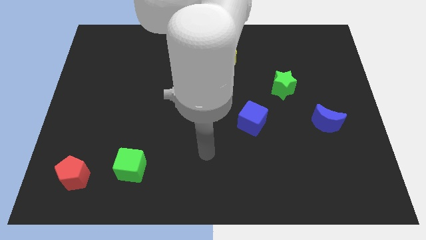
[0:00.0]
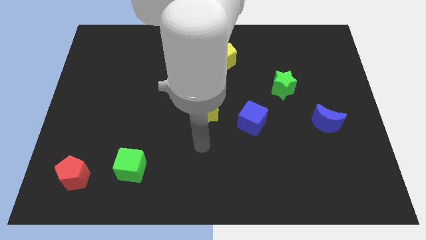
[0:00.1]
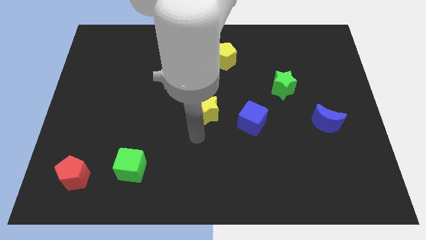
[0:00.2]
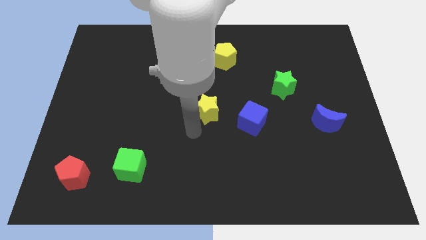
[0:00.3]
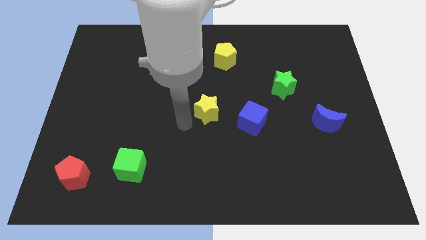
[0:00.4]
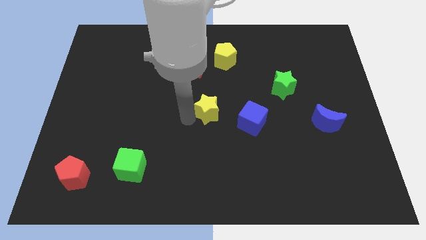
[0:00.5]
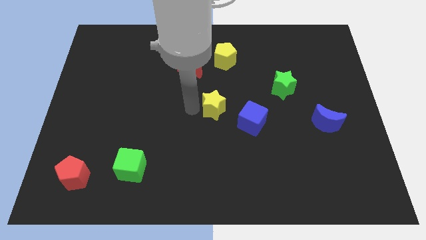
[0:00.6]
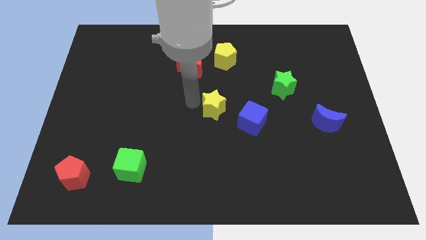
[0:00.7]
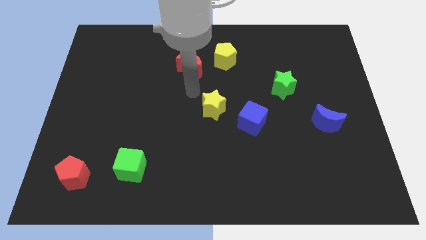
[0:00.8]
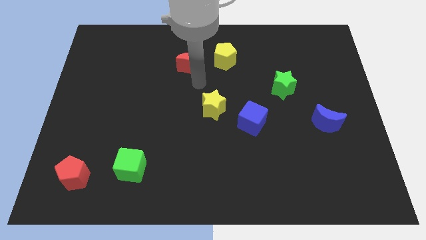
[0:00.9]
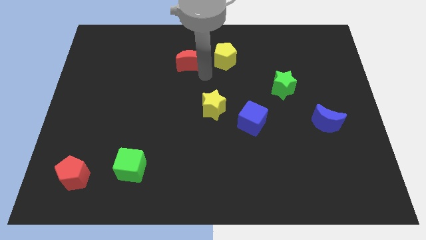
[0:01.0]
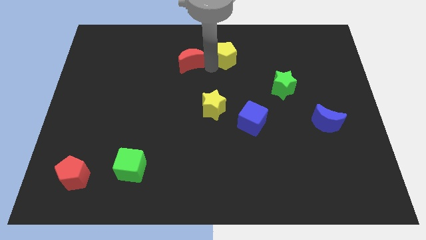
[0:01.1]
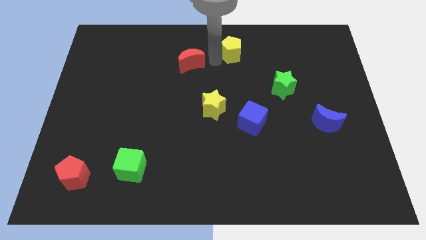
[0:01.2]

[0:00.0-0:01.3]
move the red moon away from the yellow pentagon

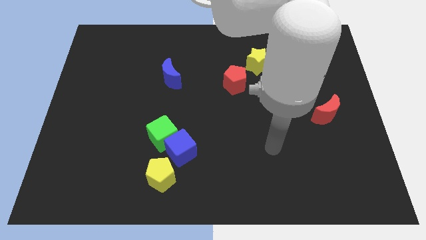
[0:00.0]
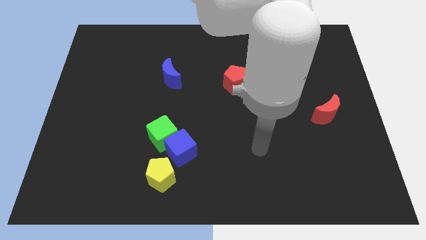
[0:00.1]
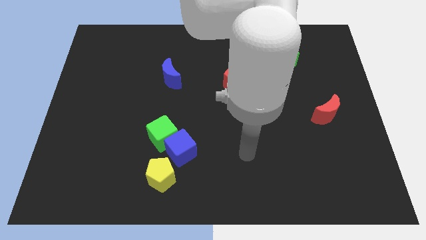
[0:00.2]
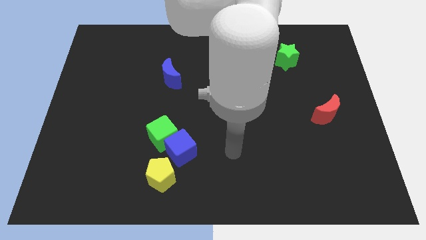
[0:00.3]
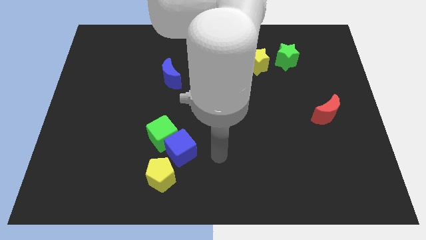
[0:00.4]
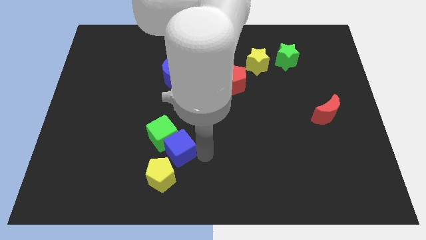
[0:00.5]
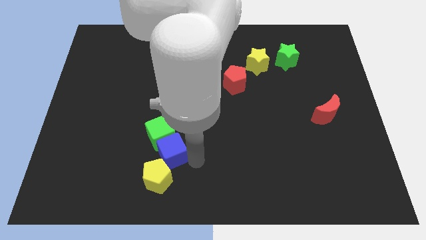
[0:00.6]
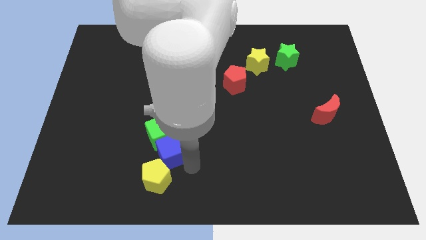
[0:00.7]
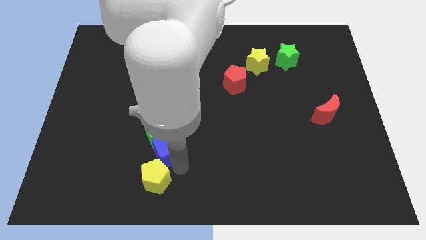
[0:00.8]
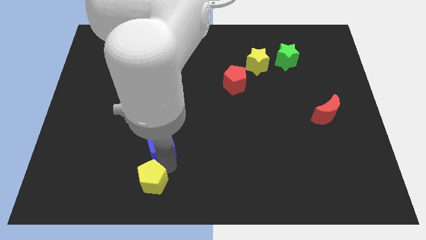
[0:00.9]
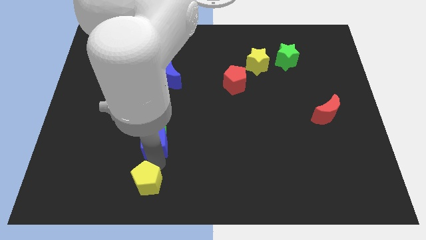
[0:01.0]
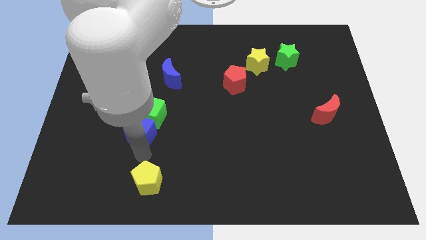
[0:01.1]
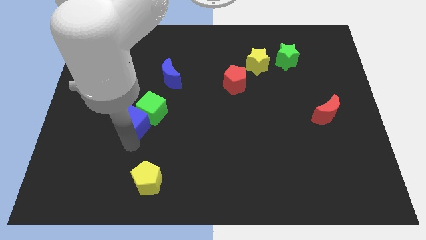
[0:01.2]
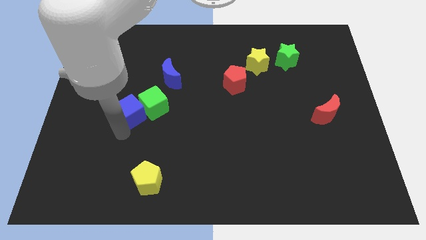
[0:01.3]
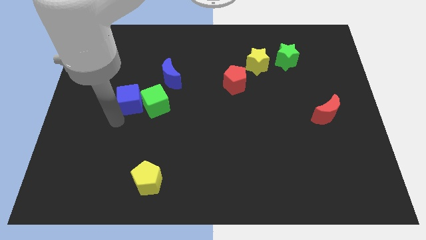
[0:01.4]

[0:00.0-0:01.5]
separate the blue cube from the green cube and yellow pentagon

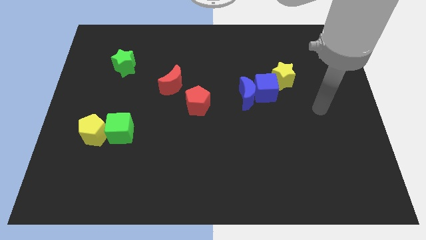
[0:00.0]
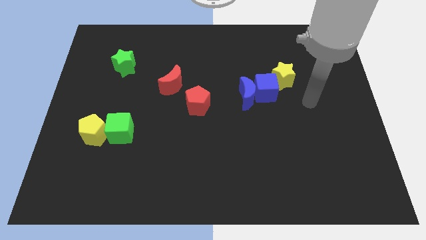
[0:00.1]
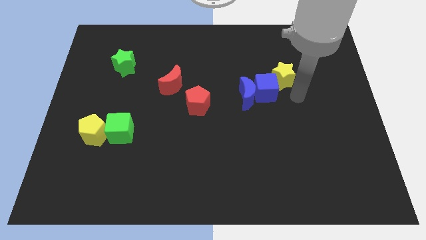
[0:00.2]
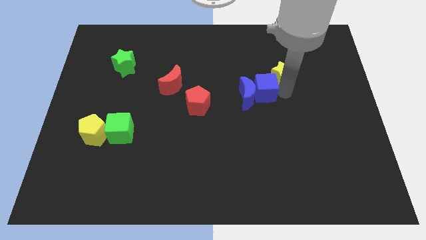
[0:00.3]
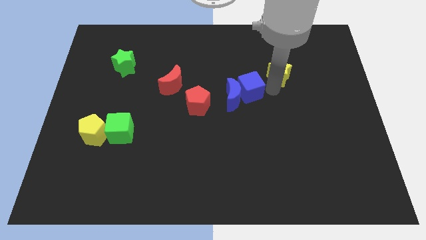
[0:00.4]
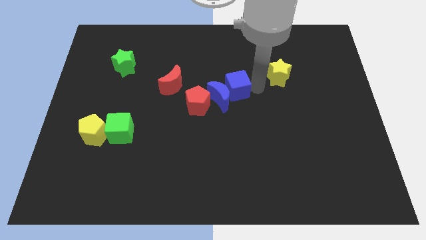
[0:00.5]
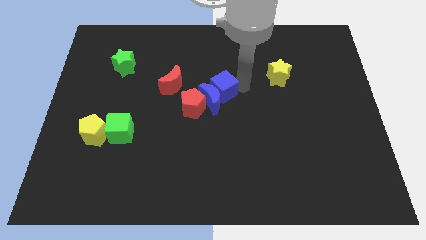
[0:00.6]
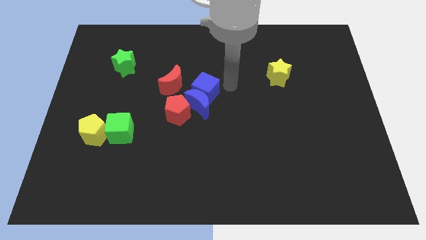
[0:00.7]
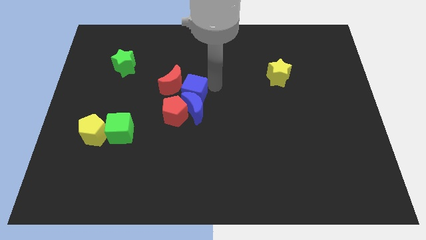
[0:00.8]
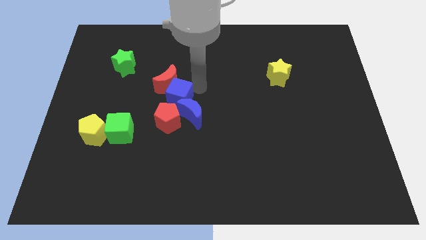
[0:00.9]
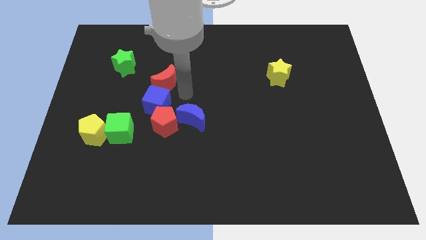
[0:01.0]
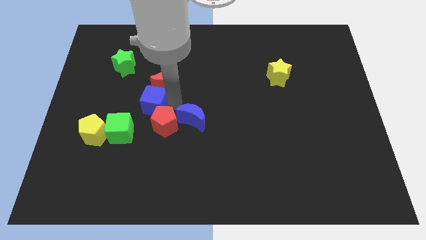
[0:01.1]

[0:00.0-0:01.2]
move the blue moon away from the blue cube

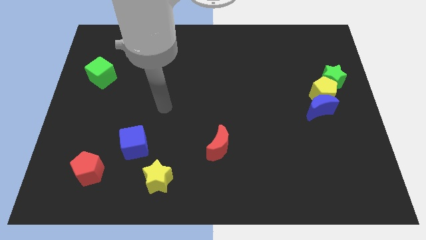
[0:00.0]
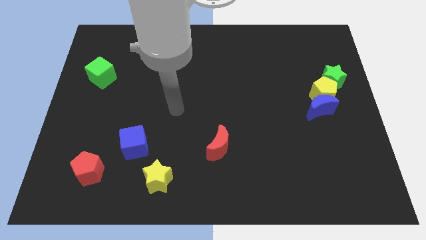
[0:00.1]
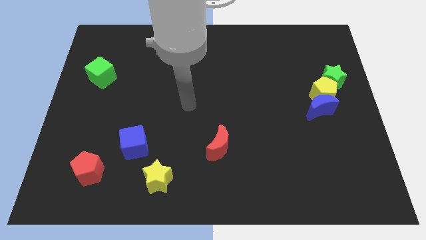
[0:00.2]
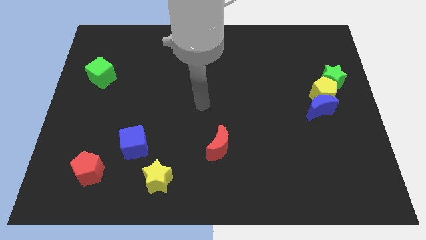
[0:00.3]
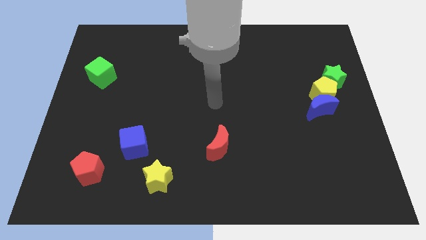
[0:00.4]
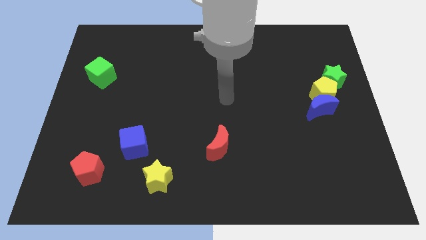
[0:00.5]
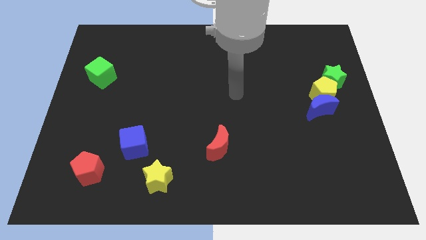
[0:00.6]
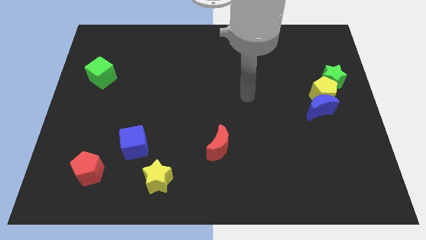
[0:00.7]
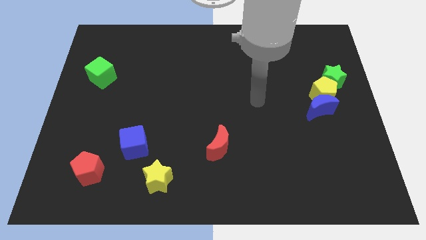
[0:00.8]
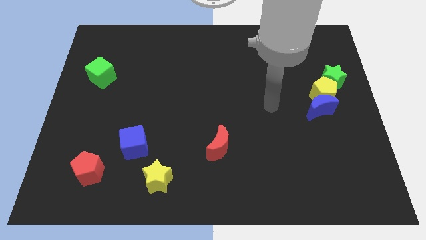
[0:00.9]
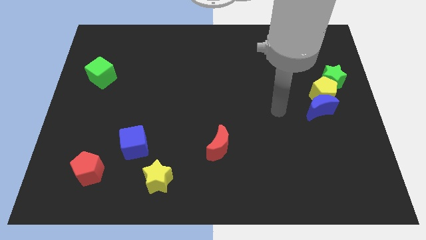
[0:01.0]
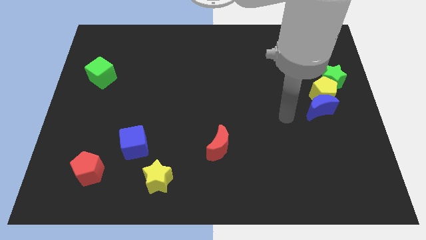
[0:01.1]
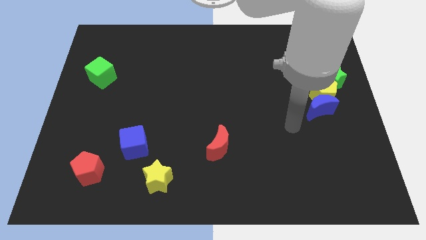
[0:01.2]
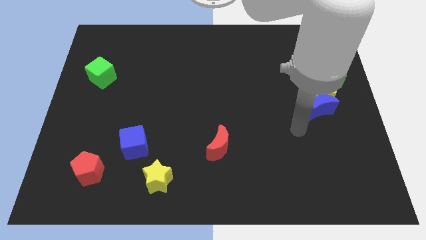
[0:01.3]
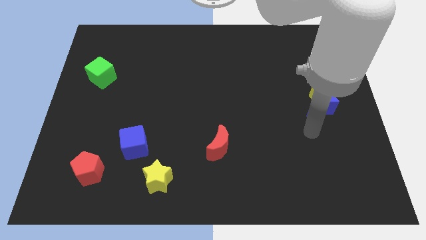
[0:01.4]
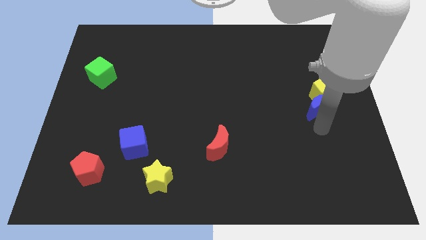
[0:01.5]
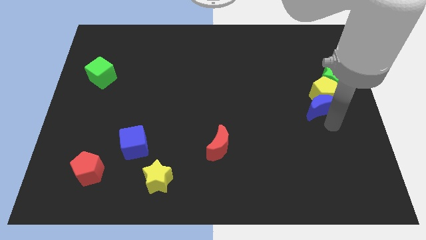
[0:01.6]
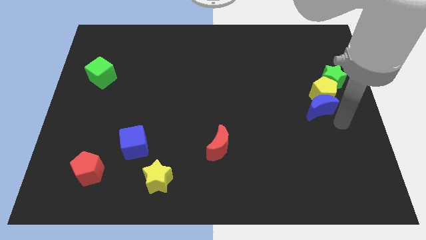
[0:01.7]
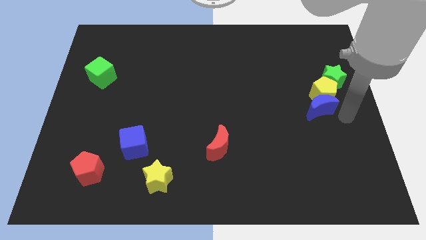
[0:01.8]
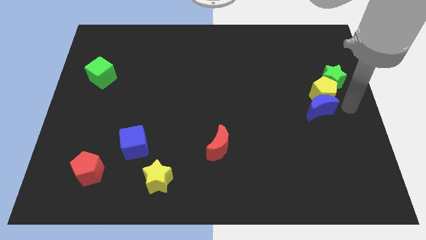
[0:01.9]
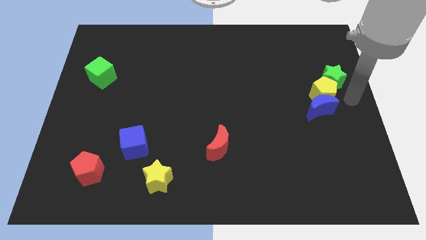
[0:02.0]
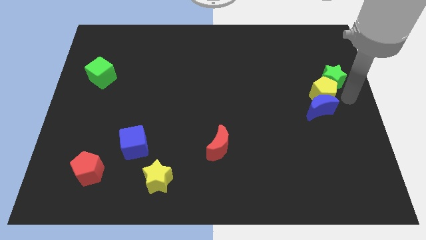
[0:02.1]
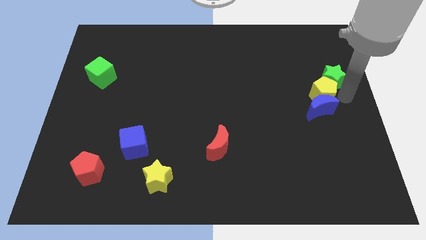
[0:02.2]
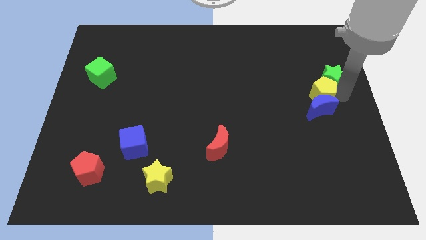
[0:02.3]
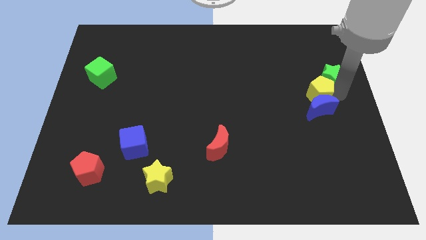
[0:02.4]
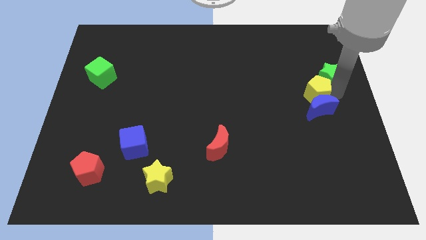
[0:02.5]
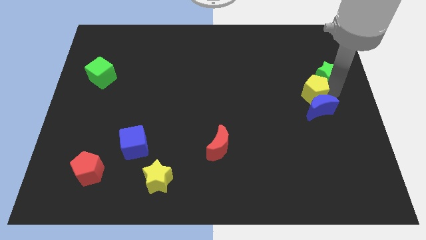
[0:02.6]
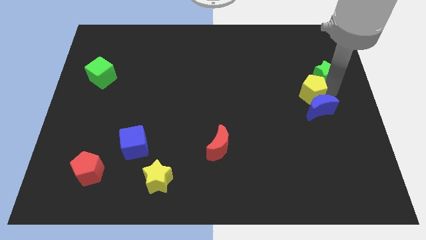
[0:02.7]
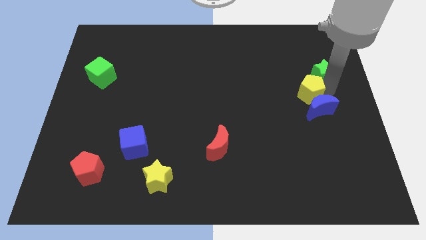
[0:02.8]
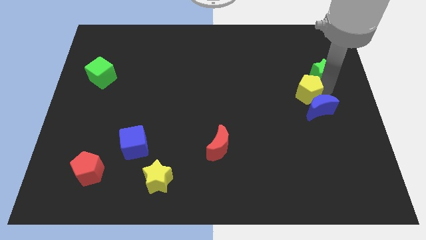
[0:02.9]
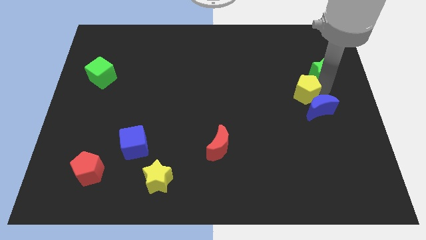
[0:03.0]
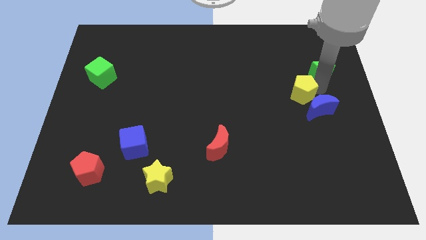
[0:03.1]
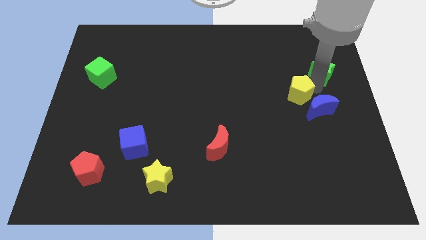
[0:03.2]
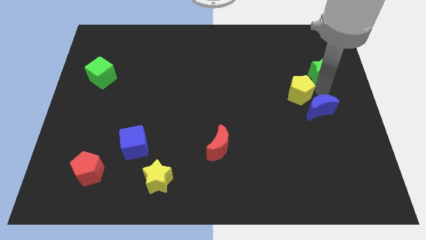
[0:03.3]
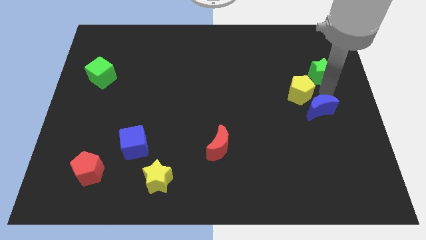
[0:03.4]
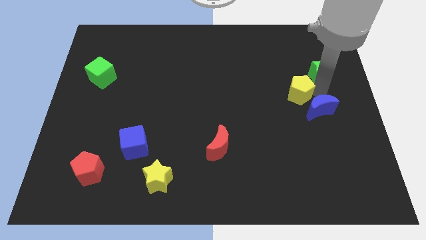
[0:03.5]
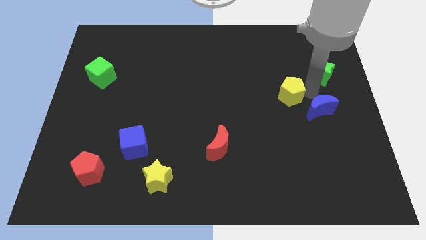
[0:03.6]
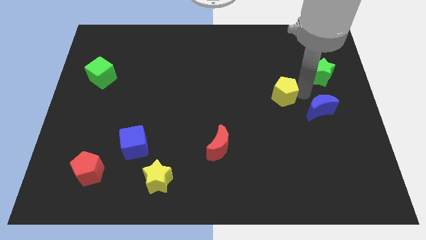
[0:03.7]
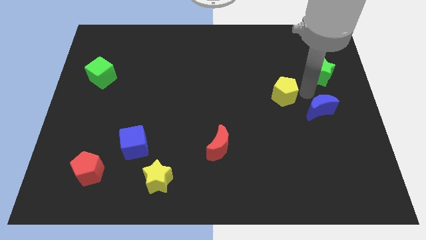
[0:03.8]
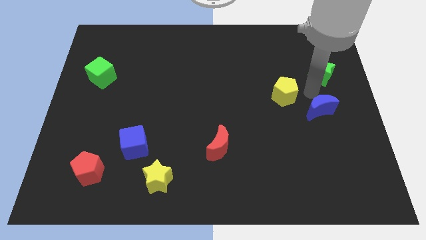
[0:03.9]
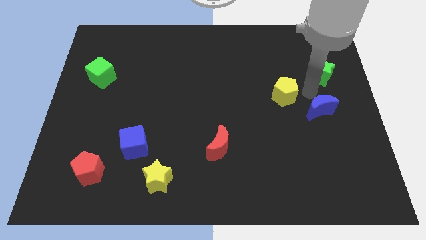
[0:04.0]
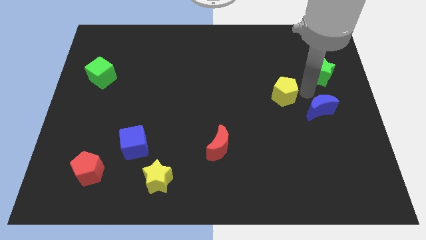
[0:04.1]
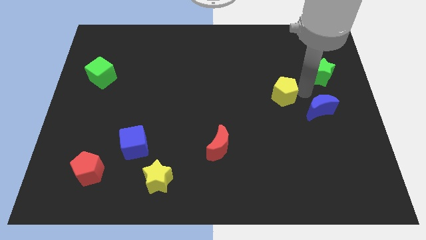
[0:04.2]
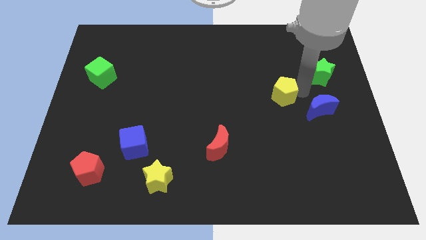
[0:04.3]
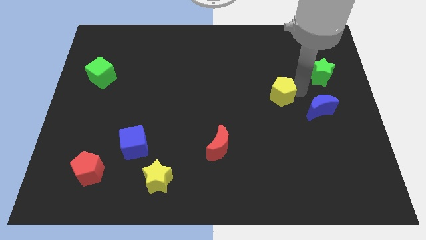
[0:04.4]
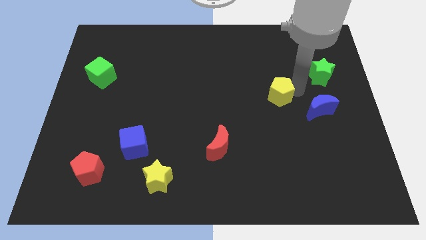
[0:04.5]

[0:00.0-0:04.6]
pull the yellow pentagon apart from the blue moon and green star

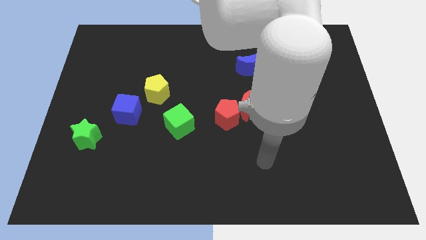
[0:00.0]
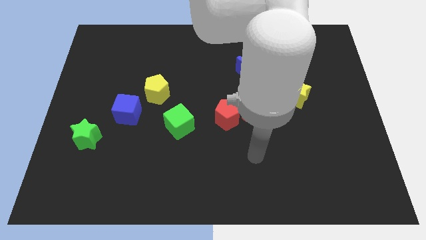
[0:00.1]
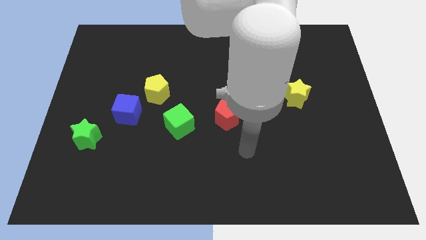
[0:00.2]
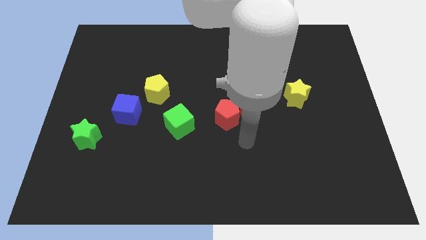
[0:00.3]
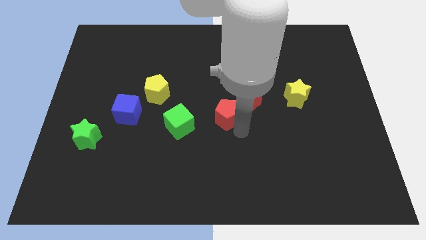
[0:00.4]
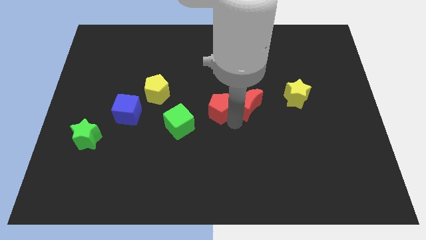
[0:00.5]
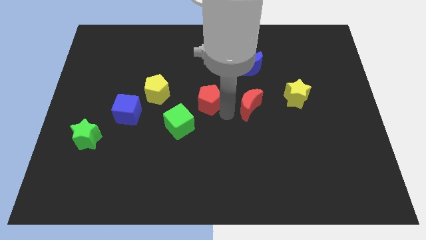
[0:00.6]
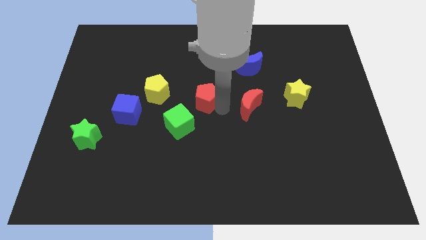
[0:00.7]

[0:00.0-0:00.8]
separate the red moon from the red pentagon
